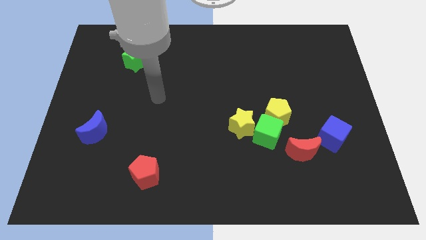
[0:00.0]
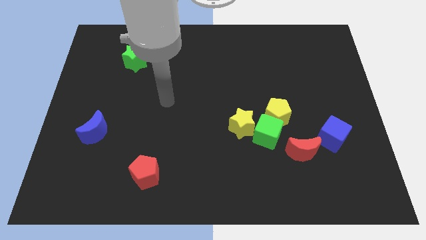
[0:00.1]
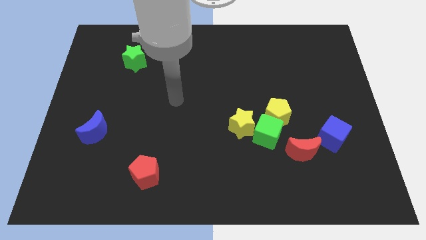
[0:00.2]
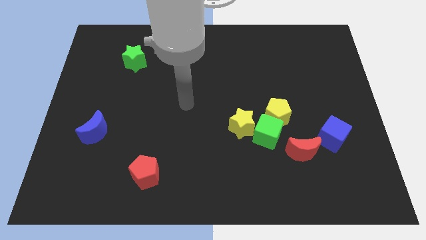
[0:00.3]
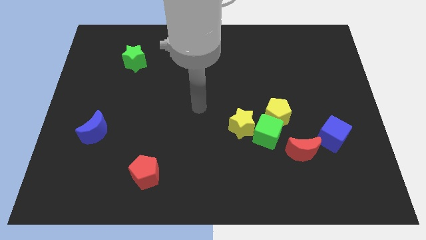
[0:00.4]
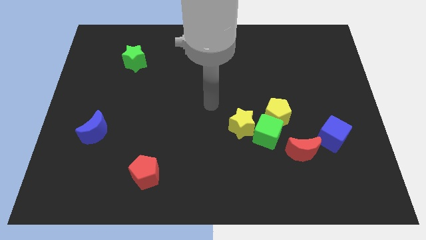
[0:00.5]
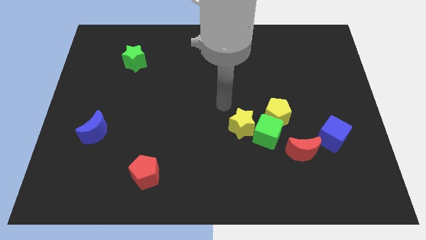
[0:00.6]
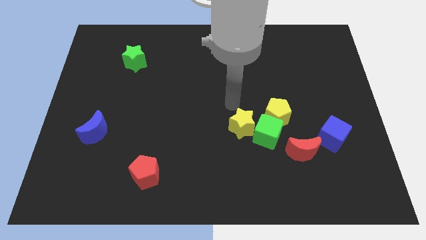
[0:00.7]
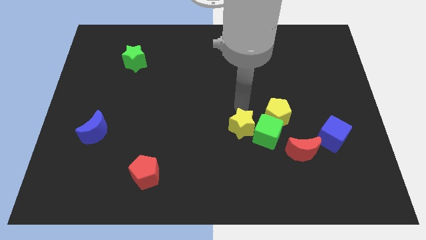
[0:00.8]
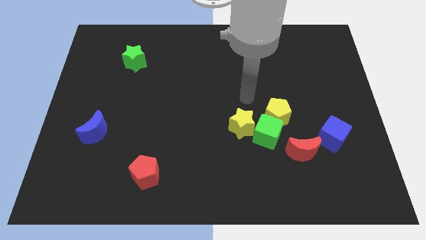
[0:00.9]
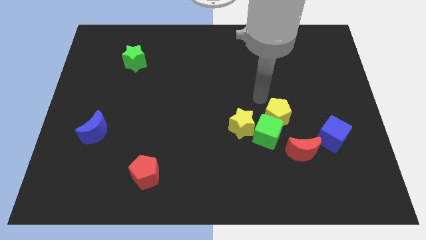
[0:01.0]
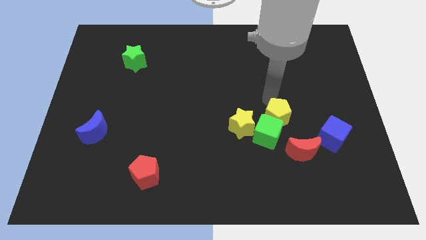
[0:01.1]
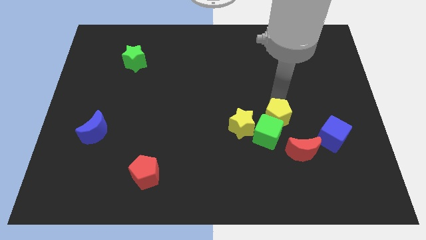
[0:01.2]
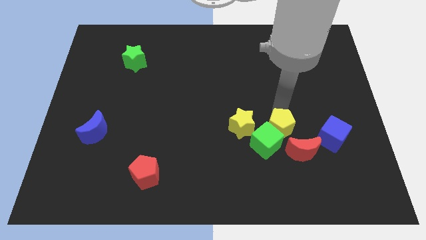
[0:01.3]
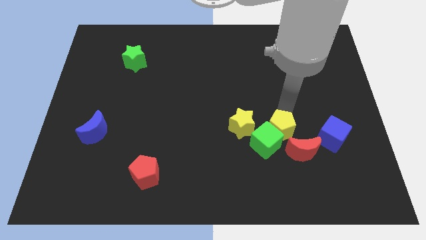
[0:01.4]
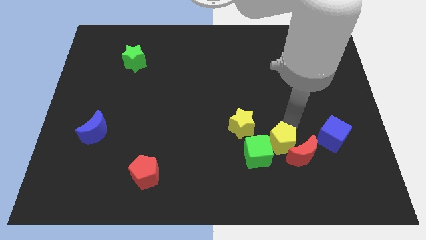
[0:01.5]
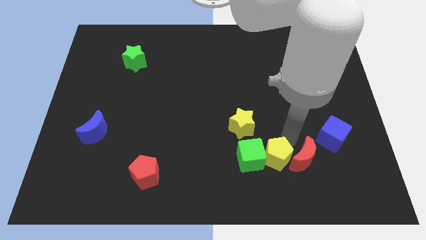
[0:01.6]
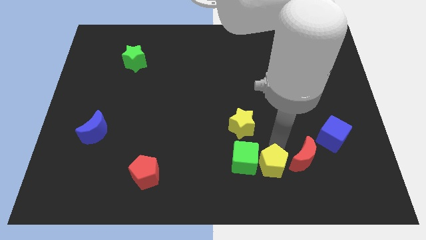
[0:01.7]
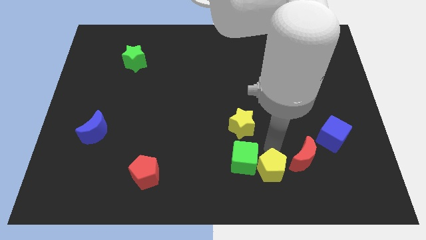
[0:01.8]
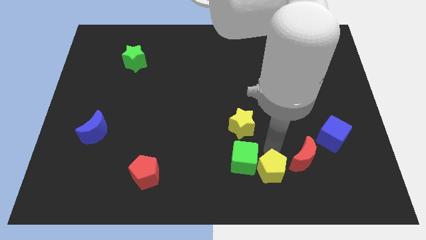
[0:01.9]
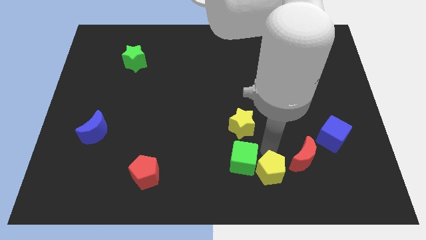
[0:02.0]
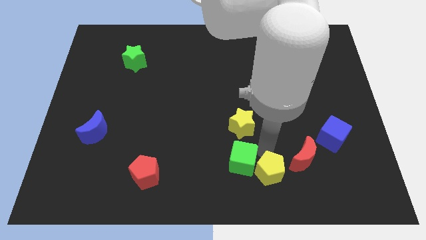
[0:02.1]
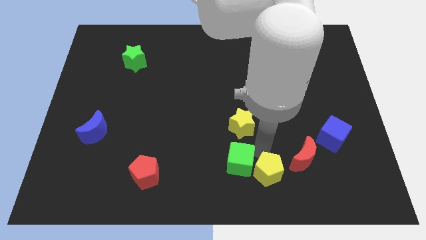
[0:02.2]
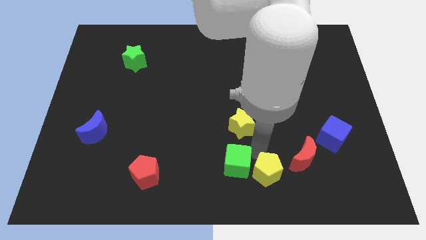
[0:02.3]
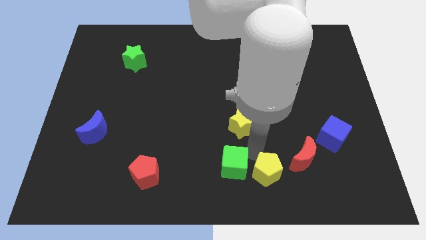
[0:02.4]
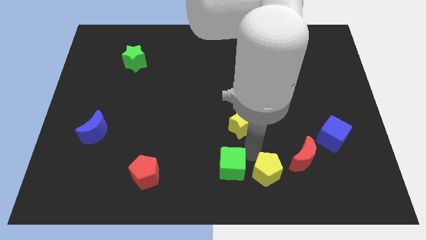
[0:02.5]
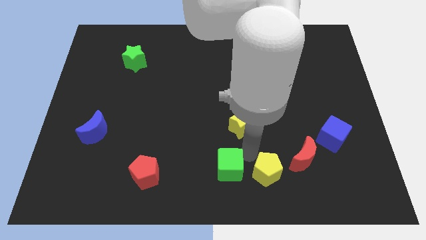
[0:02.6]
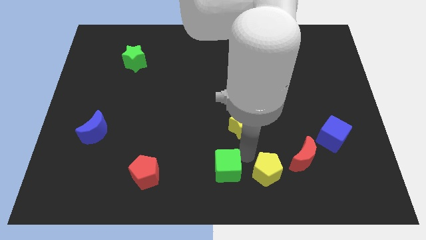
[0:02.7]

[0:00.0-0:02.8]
pull the green cube apart from the yellow pentagon, yellow star, and red moon

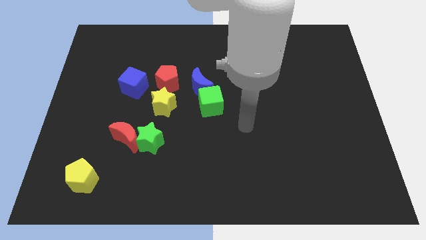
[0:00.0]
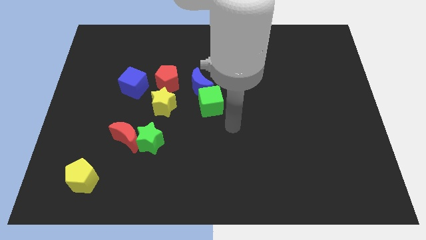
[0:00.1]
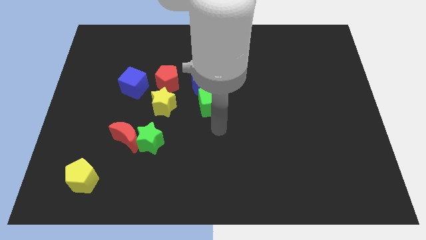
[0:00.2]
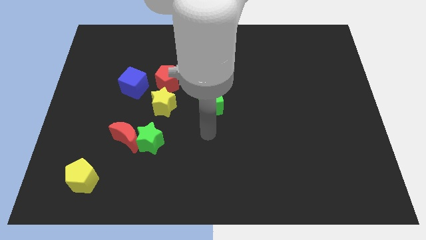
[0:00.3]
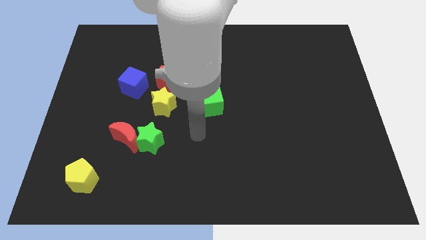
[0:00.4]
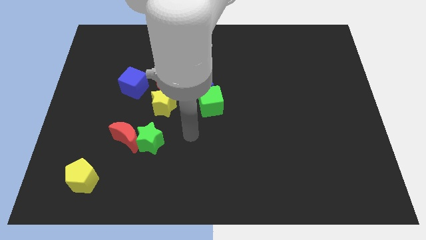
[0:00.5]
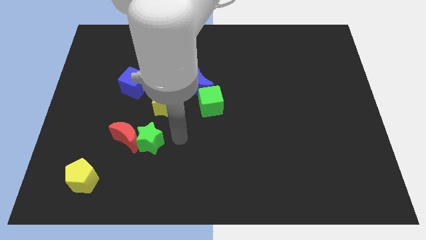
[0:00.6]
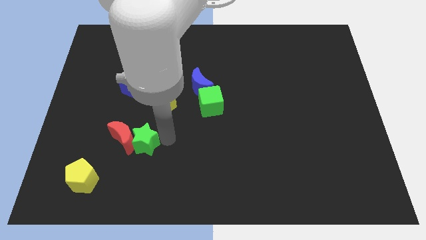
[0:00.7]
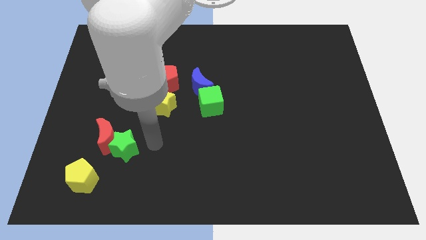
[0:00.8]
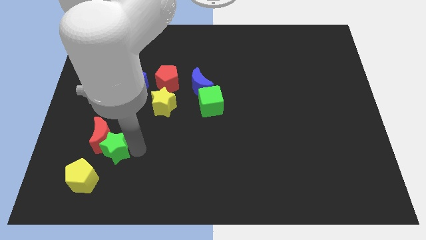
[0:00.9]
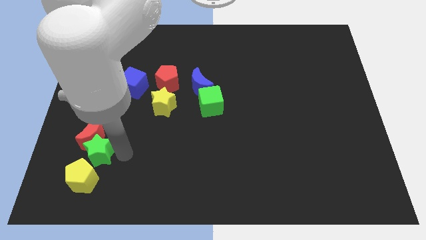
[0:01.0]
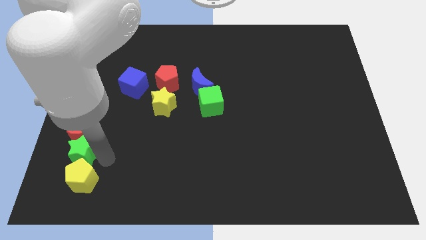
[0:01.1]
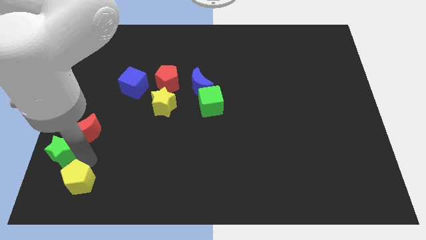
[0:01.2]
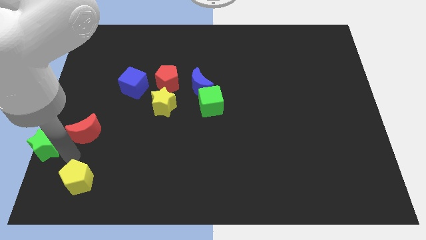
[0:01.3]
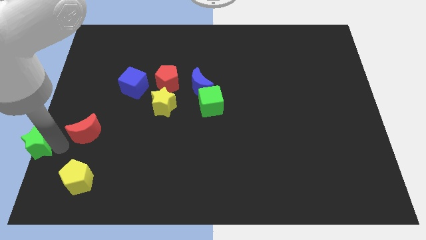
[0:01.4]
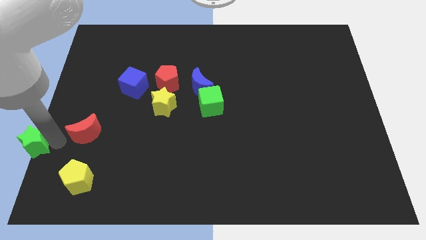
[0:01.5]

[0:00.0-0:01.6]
pull the red moon apart from the green star

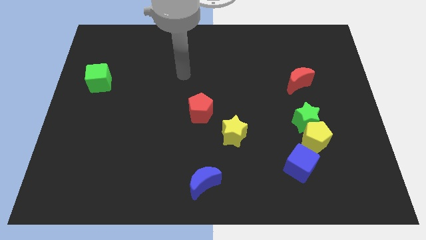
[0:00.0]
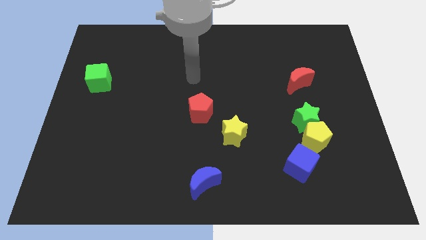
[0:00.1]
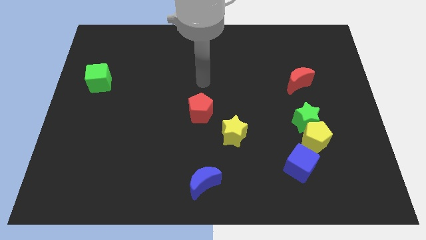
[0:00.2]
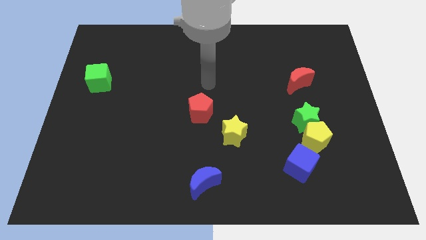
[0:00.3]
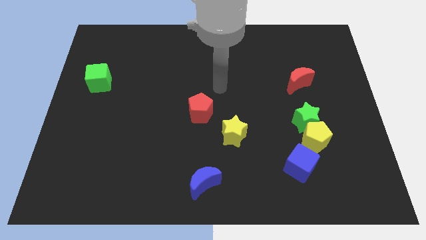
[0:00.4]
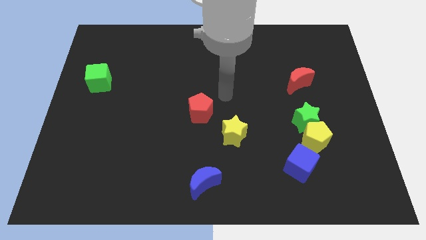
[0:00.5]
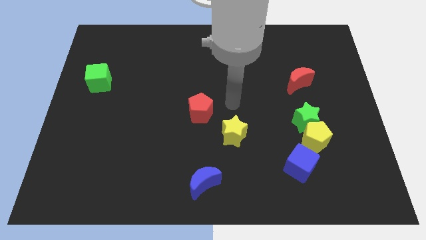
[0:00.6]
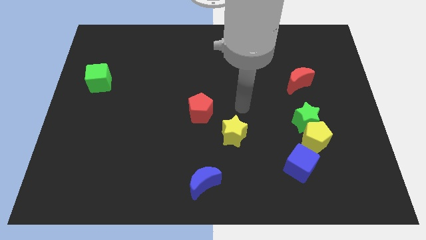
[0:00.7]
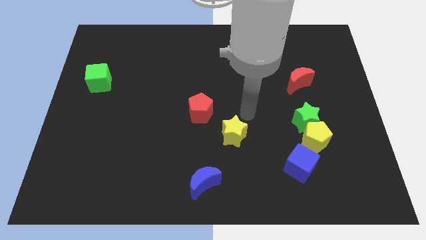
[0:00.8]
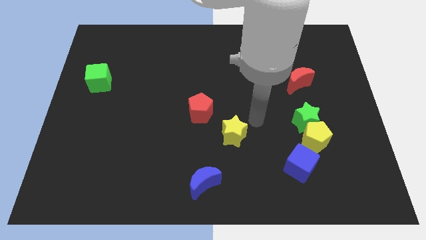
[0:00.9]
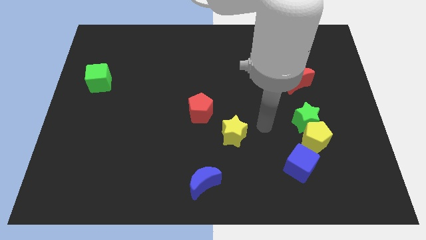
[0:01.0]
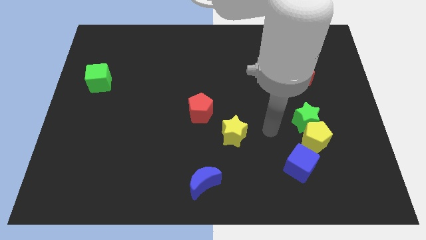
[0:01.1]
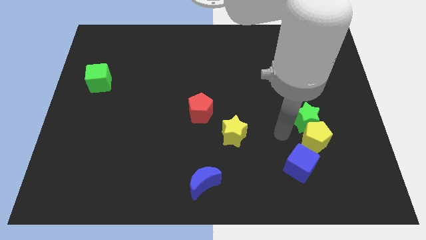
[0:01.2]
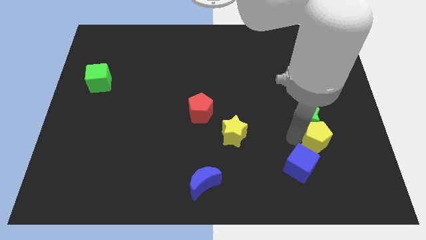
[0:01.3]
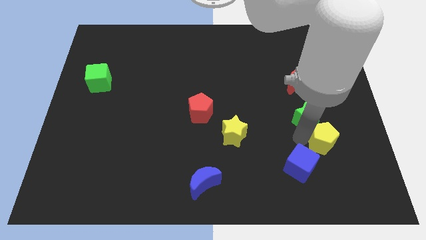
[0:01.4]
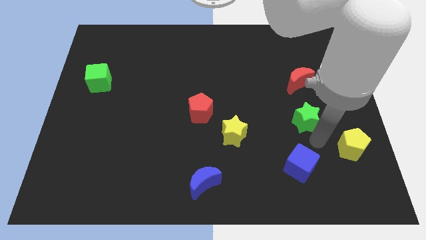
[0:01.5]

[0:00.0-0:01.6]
pull the green star apart from the yellow pentagon

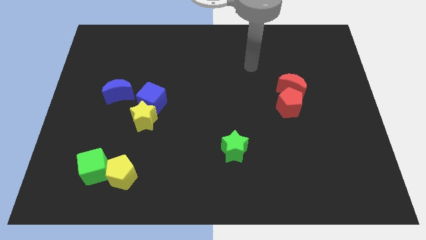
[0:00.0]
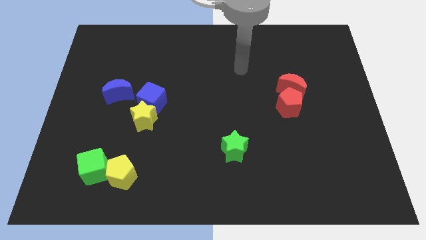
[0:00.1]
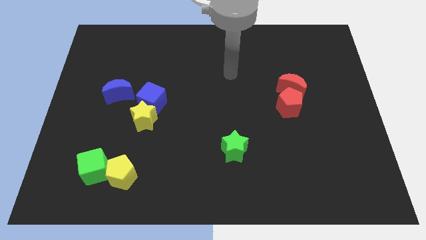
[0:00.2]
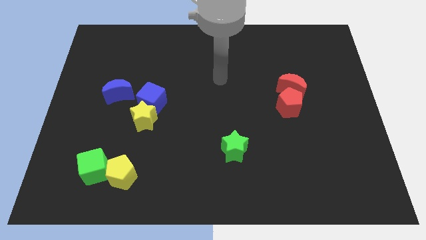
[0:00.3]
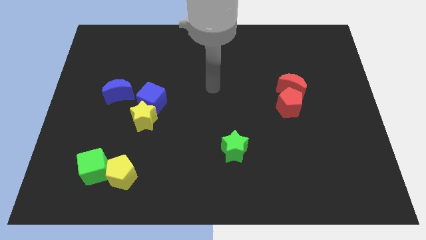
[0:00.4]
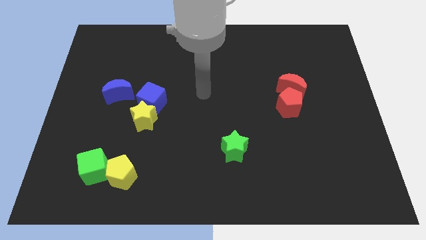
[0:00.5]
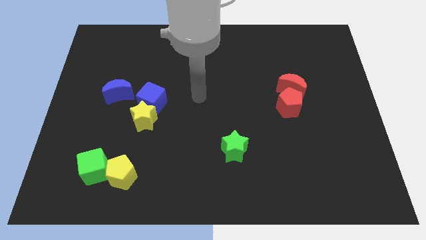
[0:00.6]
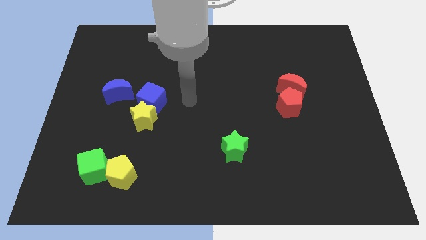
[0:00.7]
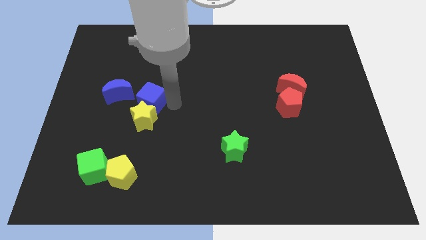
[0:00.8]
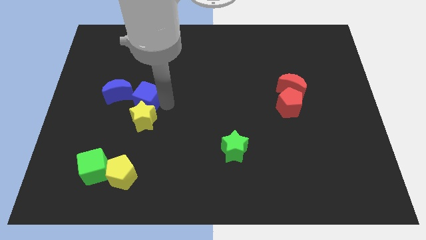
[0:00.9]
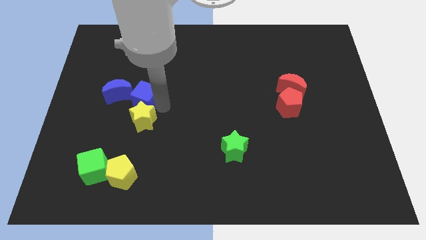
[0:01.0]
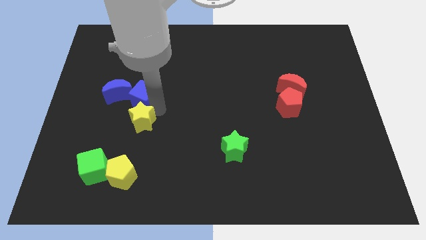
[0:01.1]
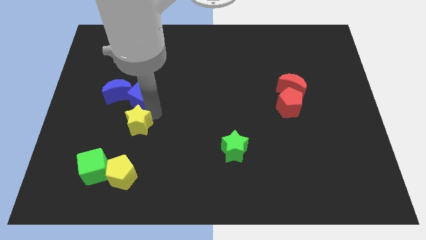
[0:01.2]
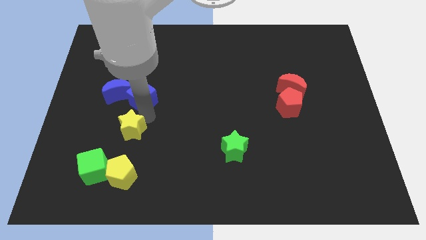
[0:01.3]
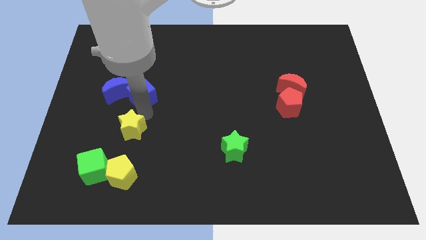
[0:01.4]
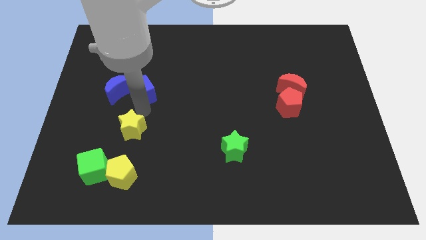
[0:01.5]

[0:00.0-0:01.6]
separate the yellow star from the blue cube

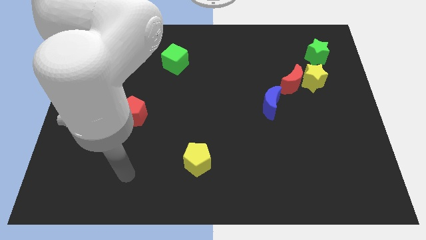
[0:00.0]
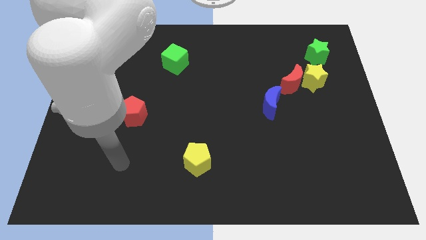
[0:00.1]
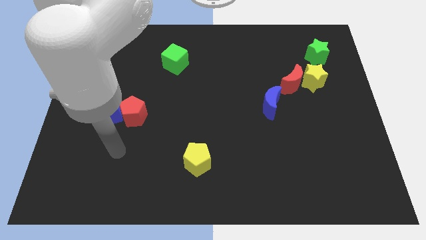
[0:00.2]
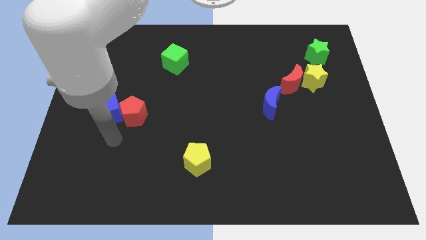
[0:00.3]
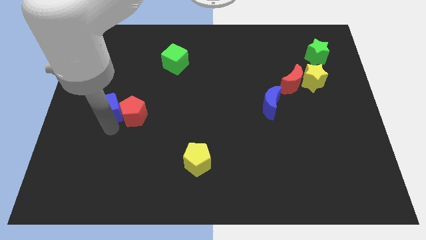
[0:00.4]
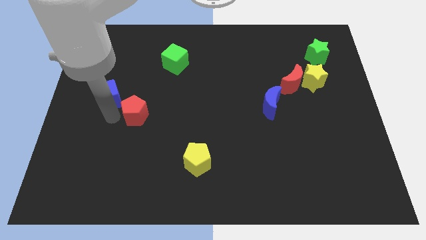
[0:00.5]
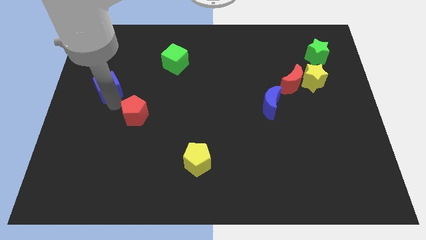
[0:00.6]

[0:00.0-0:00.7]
separate the red pentagon from the blue cube

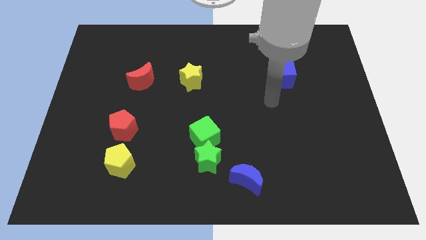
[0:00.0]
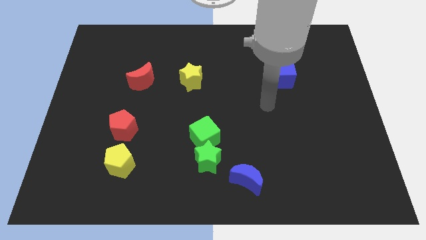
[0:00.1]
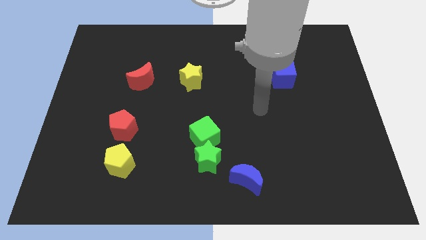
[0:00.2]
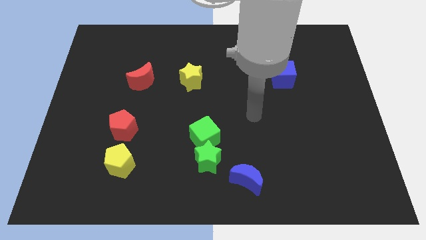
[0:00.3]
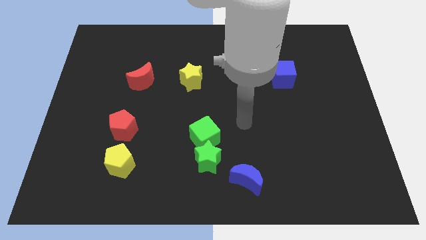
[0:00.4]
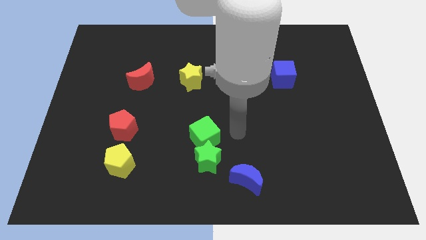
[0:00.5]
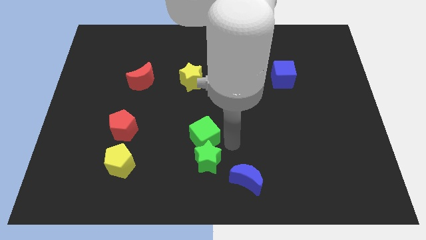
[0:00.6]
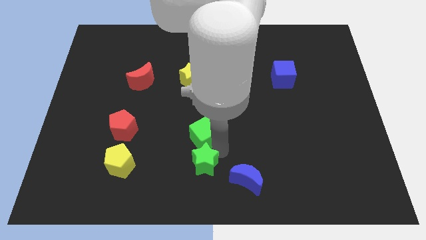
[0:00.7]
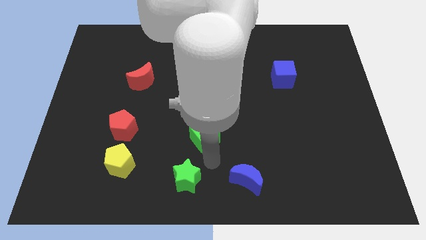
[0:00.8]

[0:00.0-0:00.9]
move the green cube away from the green star

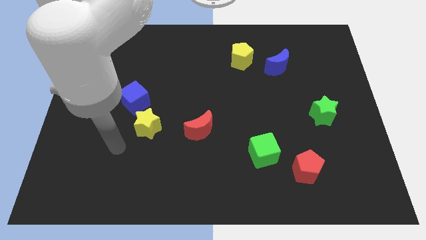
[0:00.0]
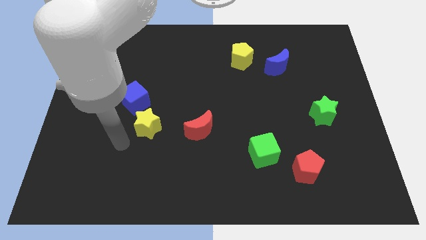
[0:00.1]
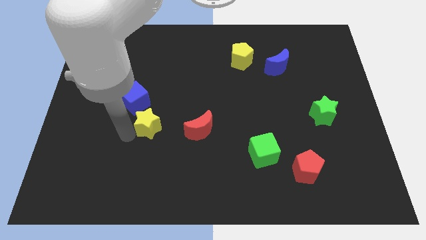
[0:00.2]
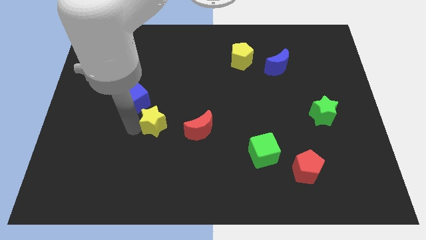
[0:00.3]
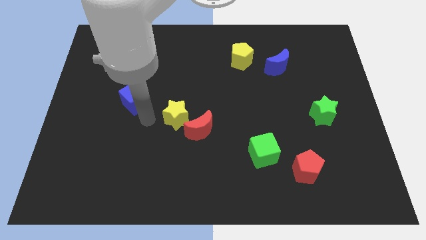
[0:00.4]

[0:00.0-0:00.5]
separate the blue cube from the yellow star
